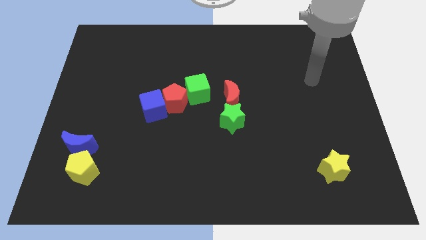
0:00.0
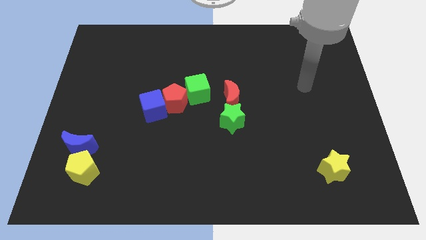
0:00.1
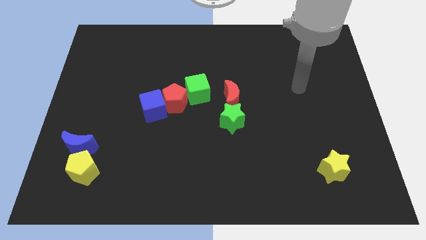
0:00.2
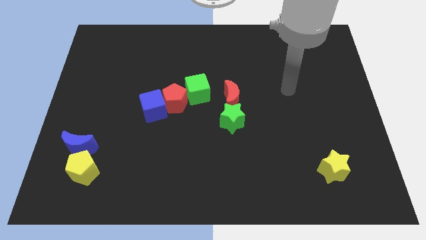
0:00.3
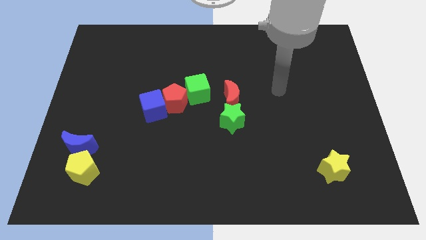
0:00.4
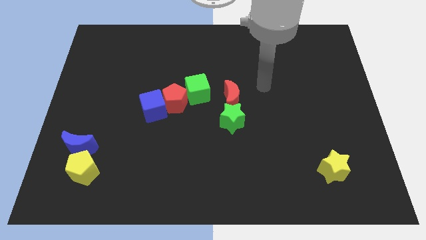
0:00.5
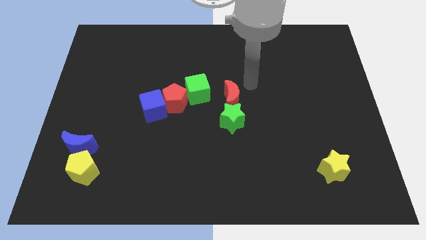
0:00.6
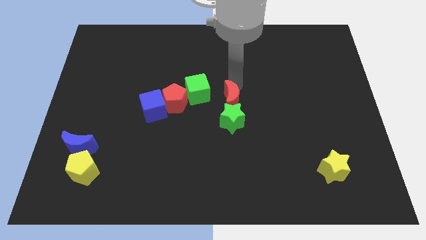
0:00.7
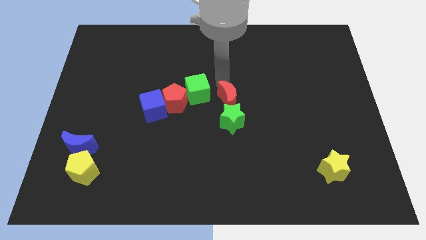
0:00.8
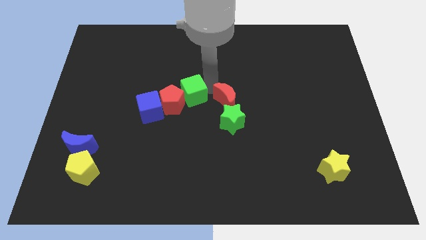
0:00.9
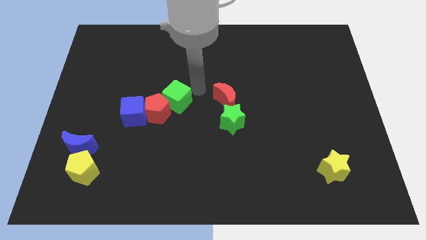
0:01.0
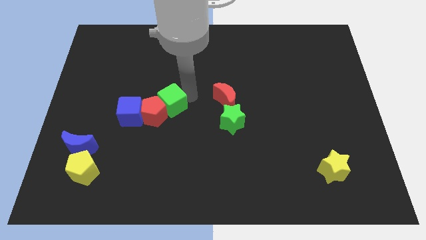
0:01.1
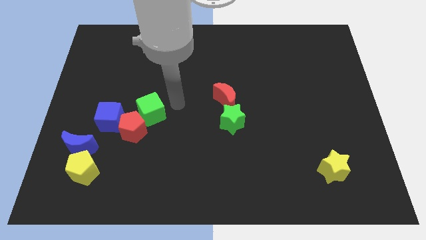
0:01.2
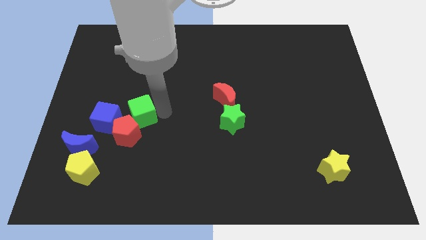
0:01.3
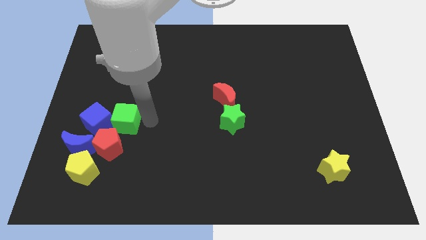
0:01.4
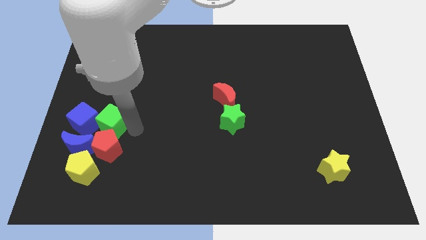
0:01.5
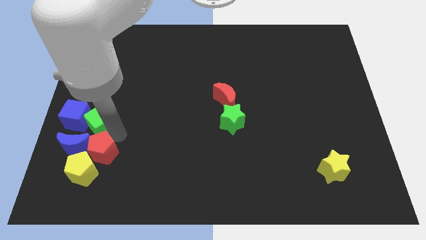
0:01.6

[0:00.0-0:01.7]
separate the blue cube from the red pentagon

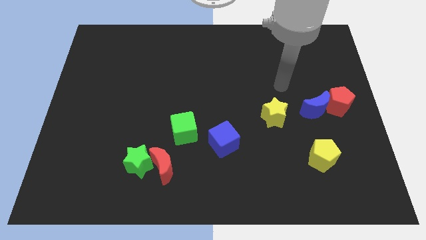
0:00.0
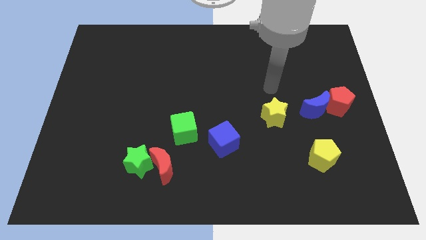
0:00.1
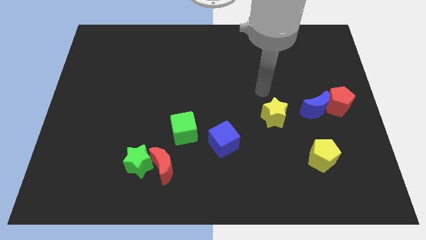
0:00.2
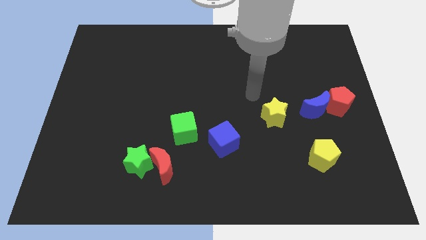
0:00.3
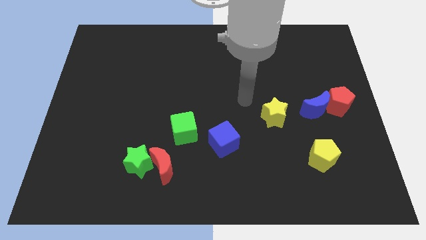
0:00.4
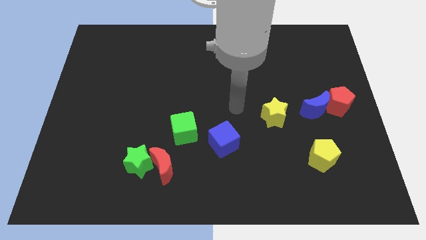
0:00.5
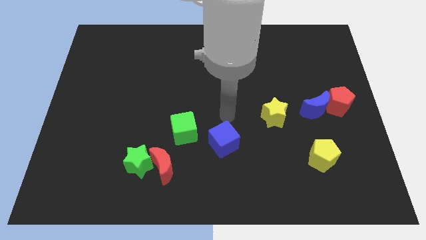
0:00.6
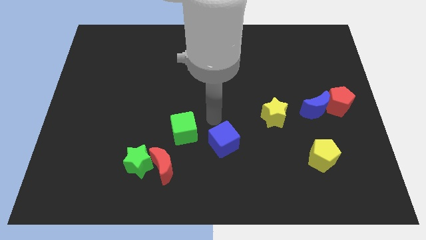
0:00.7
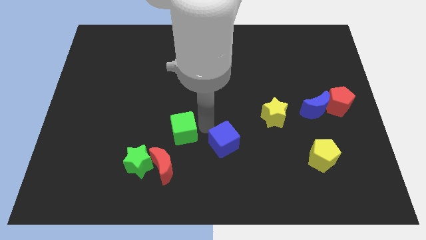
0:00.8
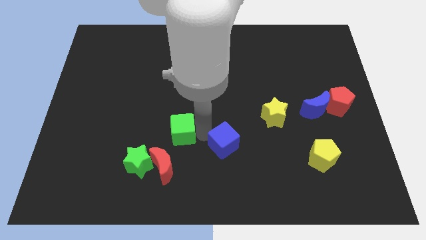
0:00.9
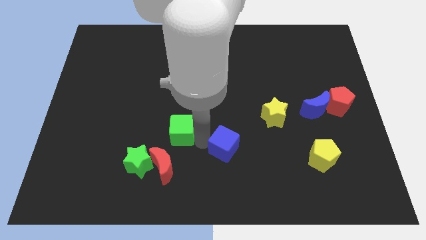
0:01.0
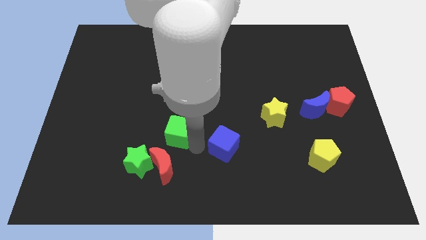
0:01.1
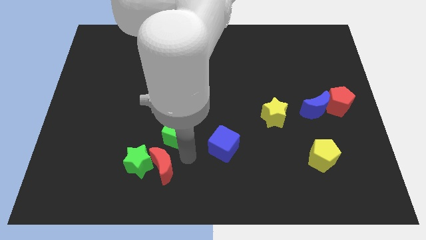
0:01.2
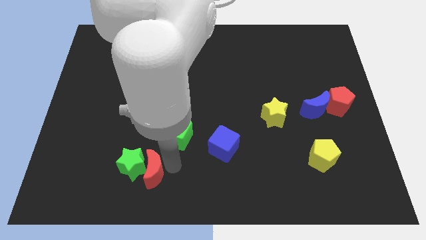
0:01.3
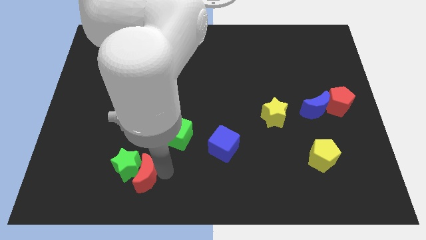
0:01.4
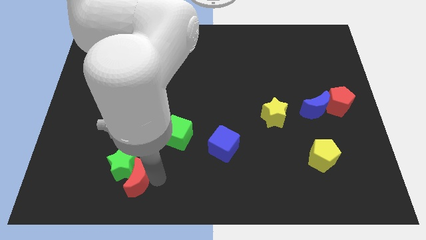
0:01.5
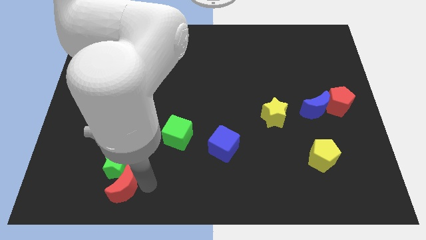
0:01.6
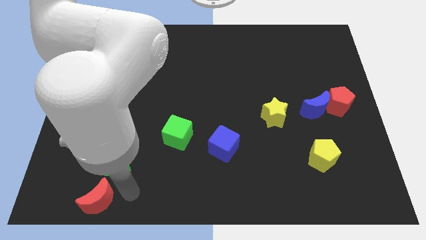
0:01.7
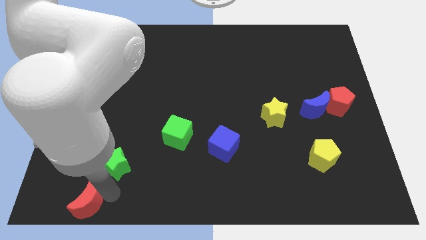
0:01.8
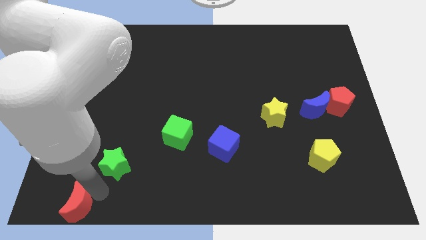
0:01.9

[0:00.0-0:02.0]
separate the green star from the red moon

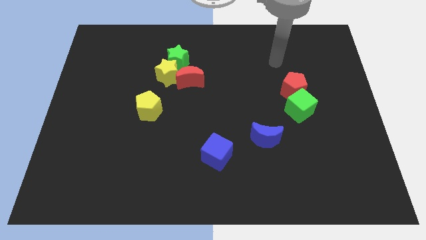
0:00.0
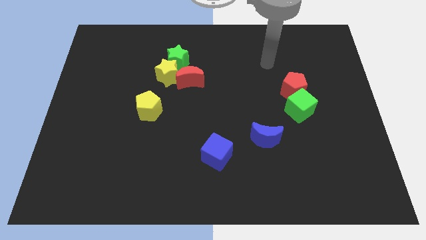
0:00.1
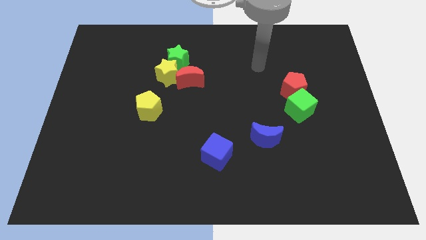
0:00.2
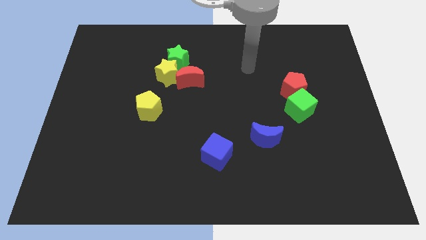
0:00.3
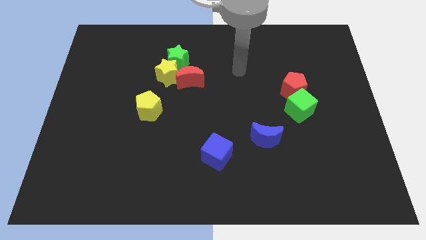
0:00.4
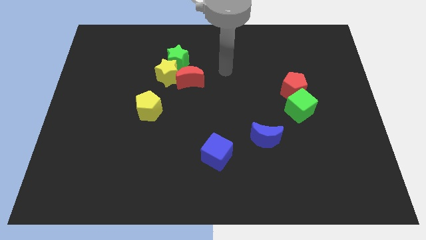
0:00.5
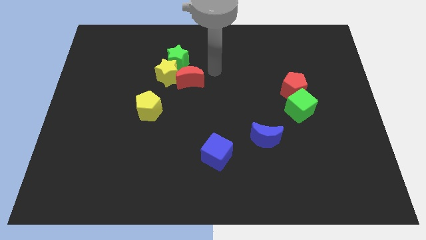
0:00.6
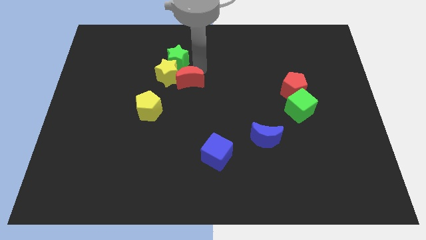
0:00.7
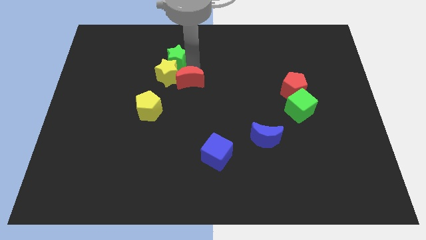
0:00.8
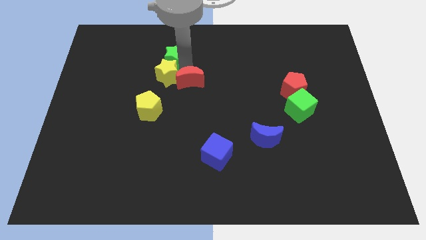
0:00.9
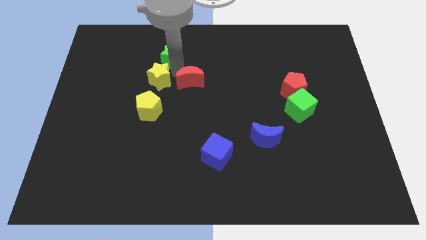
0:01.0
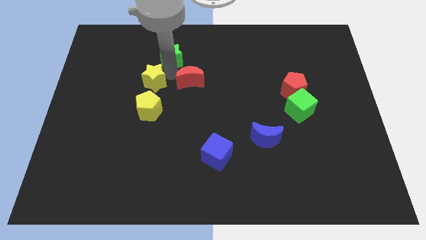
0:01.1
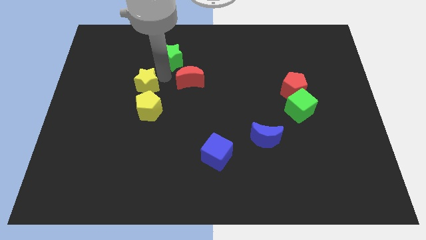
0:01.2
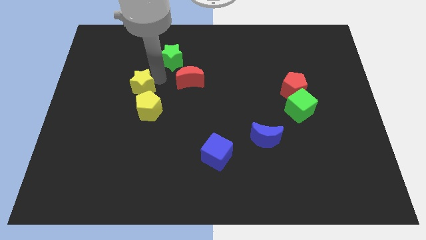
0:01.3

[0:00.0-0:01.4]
separate the yellow star from the green star and red moon

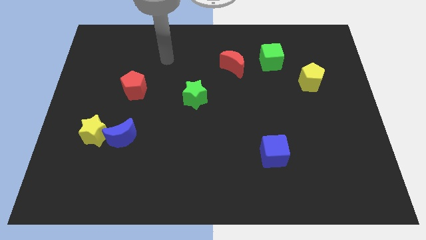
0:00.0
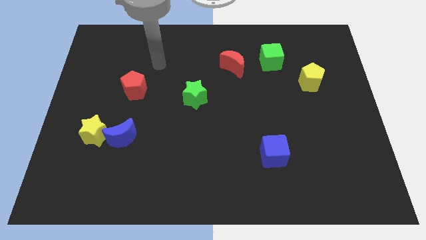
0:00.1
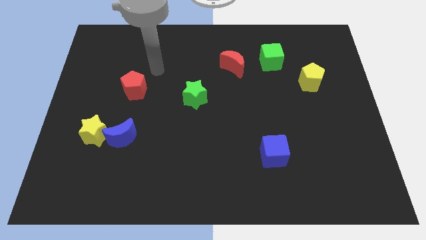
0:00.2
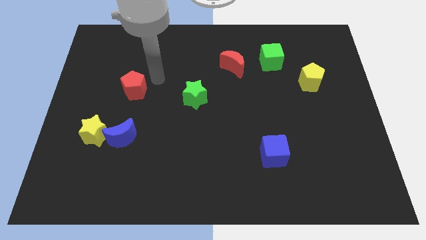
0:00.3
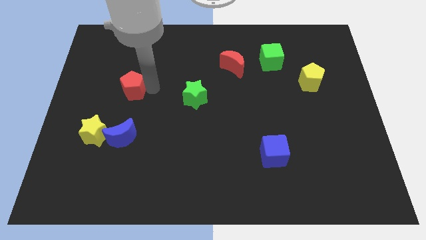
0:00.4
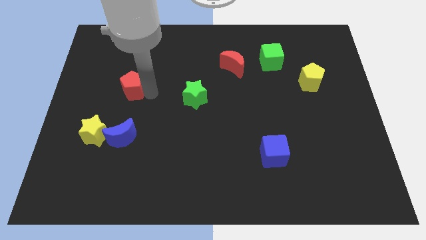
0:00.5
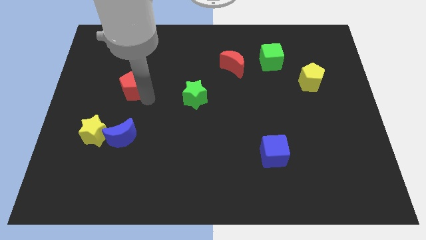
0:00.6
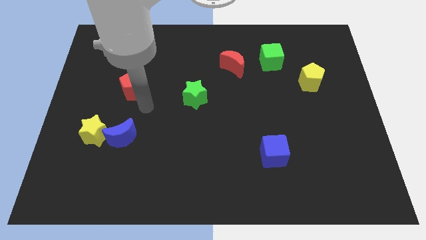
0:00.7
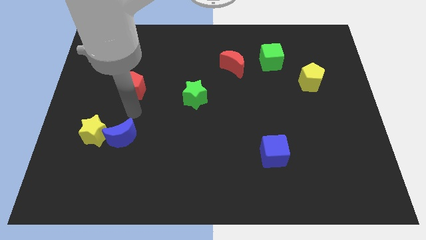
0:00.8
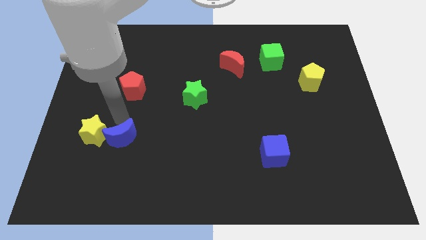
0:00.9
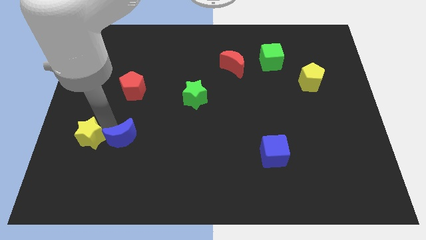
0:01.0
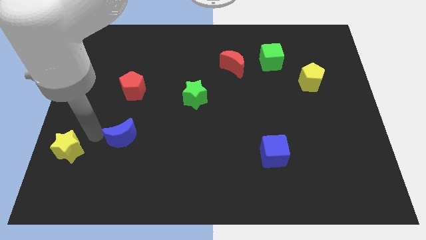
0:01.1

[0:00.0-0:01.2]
separate the blue moon from the yellow star

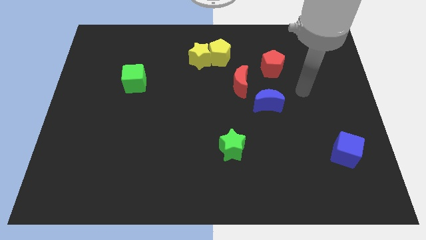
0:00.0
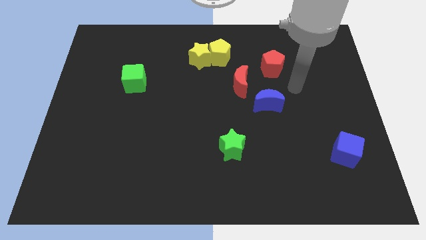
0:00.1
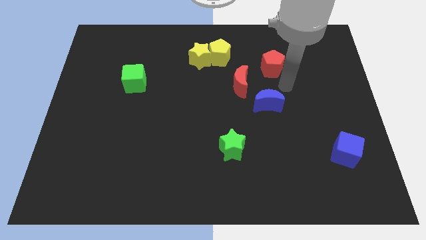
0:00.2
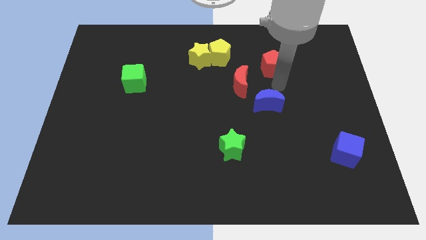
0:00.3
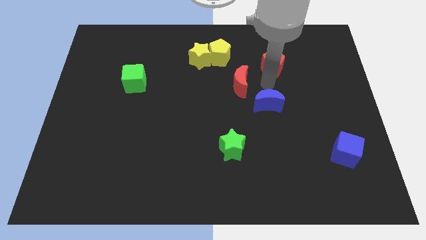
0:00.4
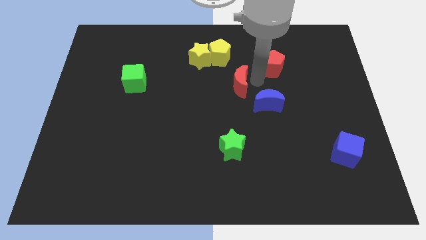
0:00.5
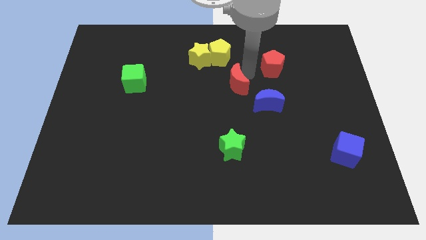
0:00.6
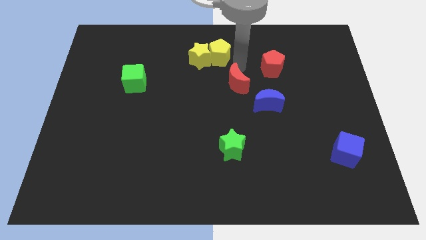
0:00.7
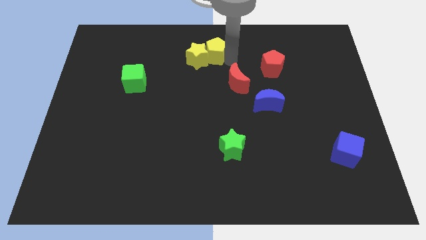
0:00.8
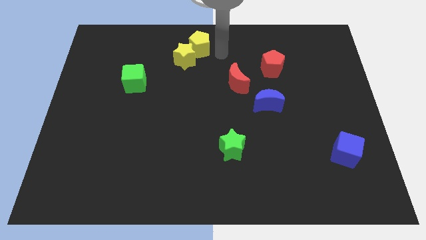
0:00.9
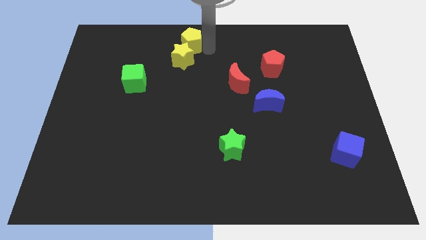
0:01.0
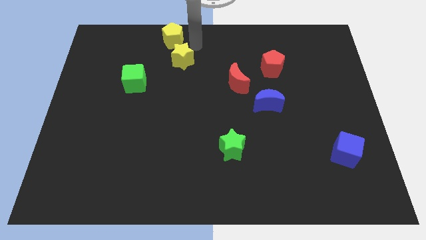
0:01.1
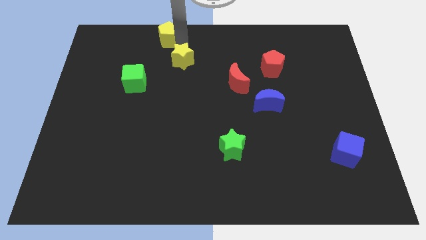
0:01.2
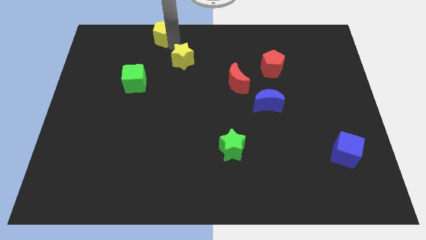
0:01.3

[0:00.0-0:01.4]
pull the yellow star apart from the yellow pentagon

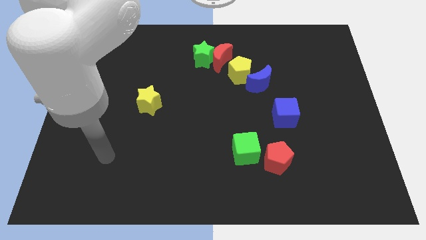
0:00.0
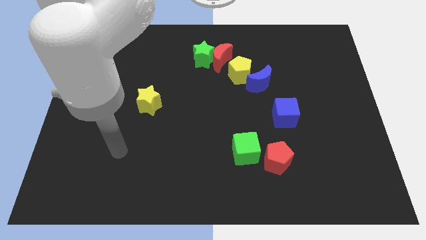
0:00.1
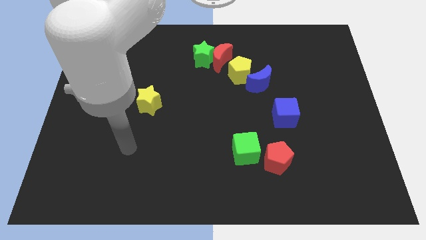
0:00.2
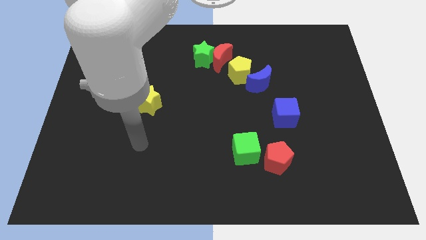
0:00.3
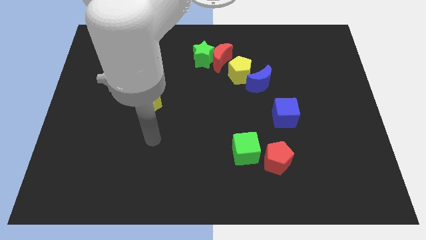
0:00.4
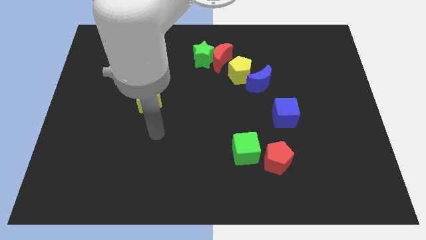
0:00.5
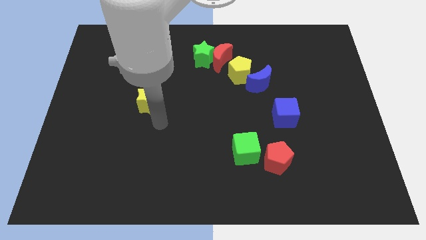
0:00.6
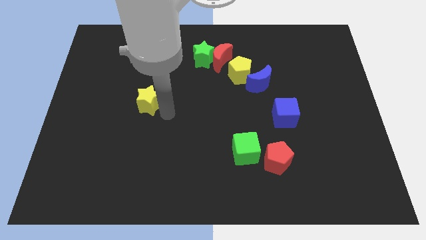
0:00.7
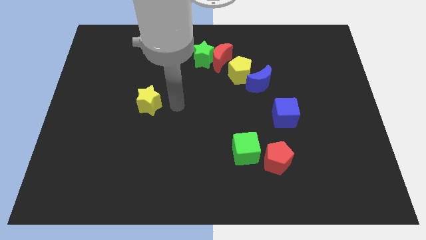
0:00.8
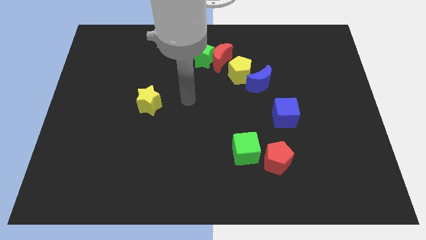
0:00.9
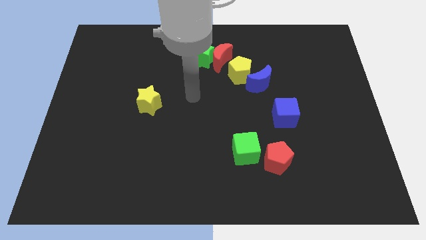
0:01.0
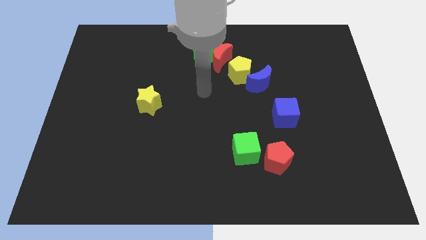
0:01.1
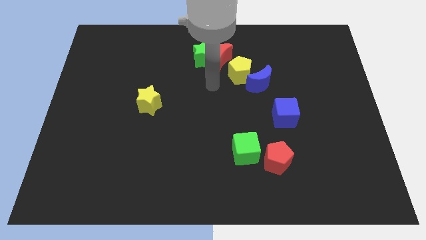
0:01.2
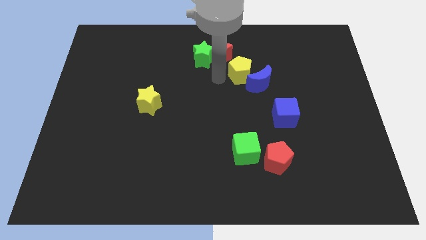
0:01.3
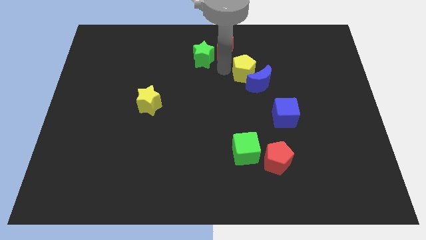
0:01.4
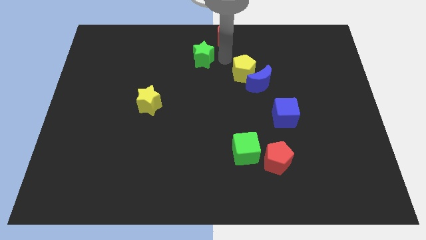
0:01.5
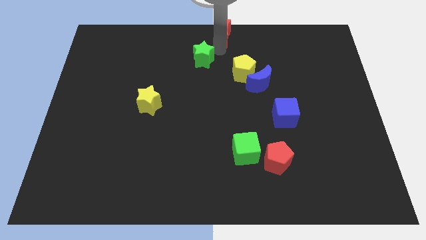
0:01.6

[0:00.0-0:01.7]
pull the green star apart from the red moon
